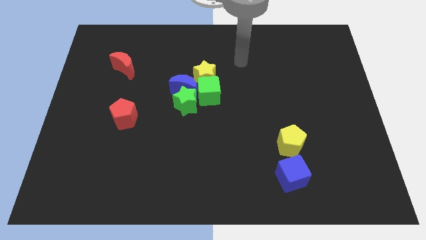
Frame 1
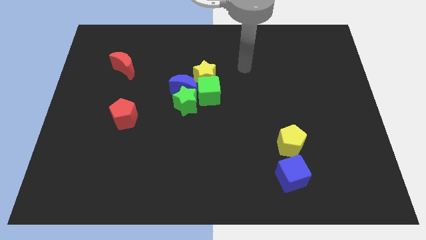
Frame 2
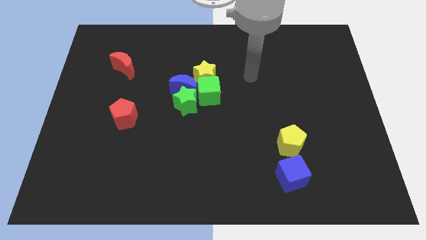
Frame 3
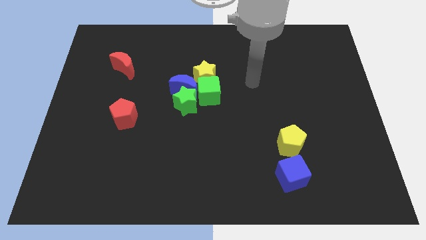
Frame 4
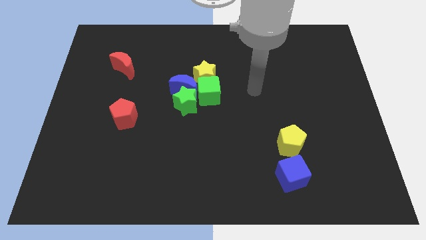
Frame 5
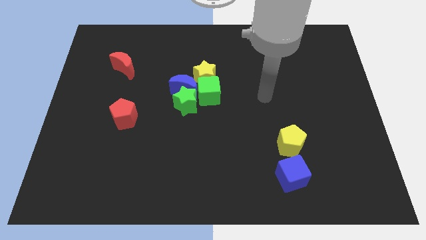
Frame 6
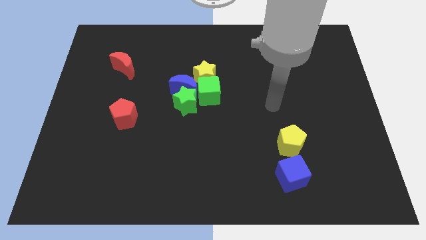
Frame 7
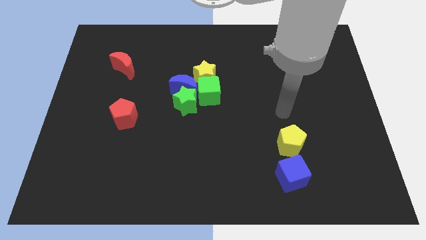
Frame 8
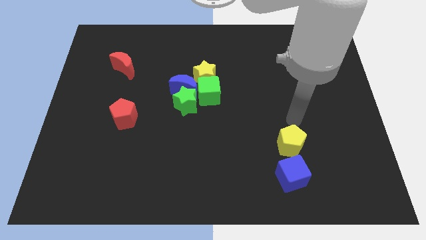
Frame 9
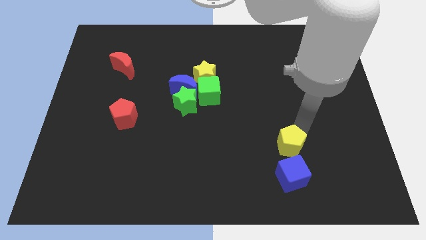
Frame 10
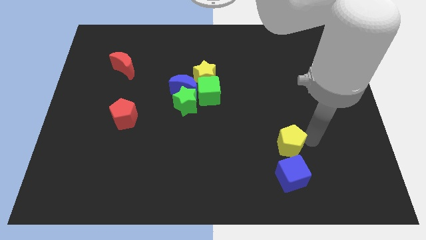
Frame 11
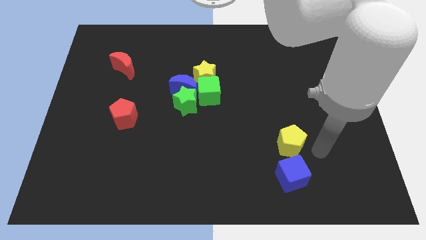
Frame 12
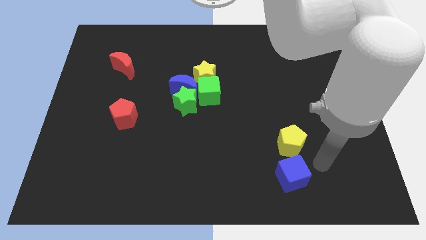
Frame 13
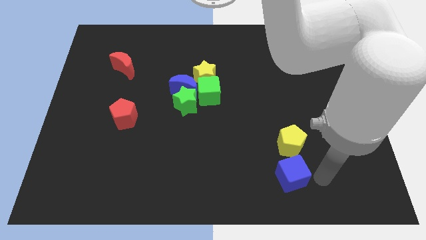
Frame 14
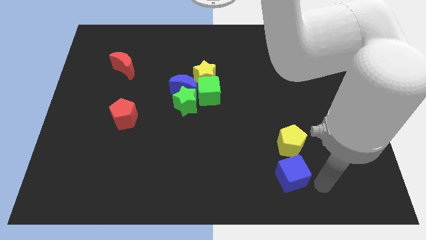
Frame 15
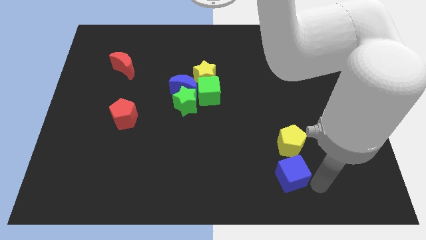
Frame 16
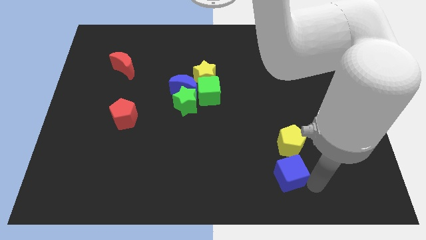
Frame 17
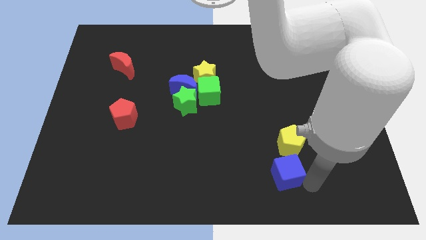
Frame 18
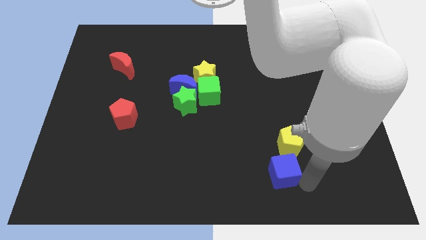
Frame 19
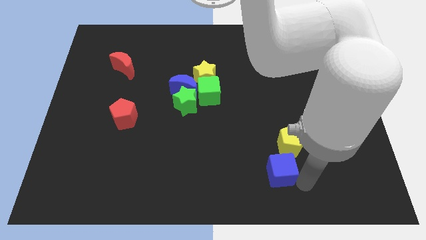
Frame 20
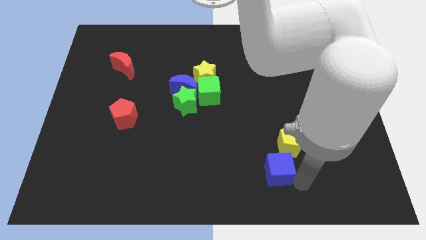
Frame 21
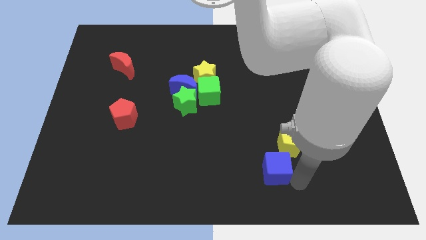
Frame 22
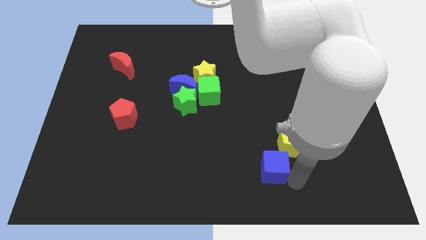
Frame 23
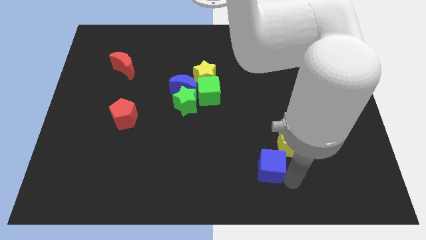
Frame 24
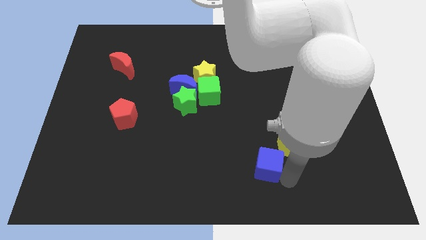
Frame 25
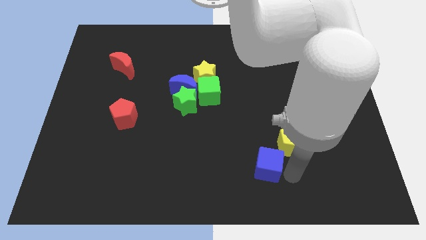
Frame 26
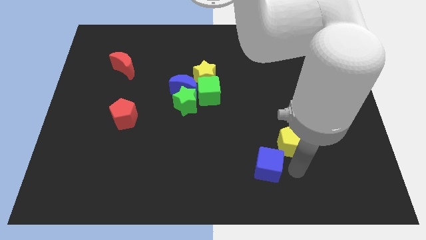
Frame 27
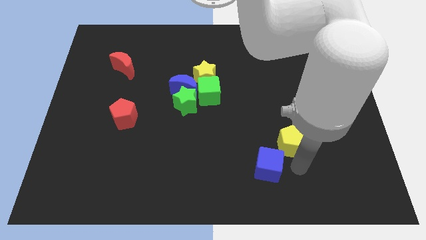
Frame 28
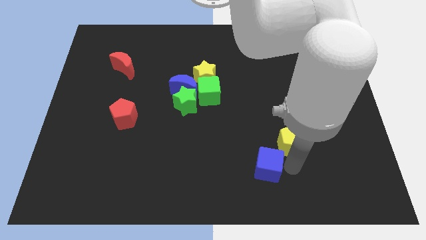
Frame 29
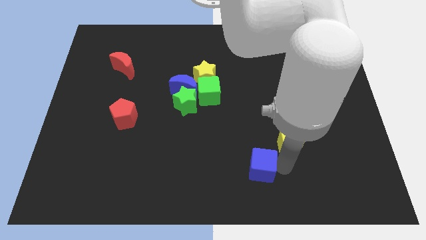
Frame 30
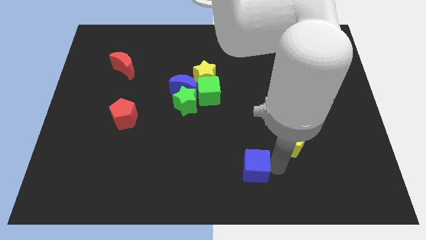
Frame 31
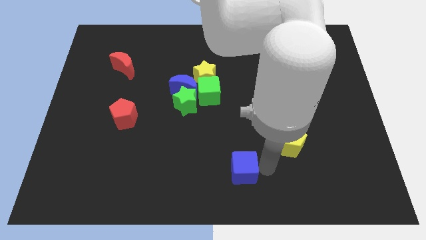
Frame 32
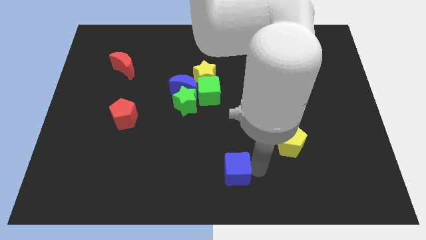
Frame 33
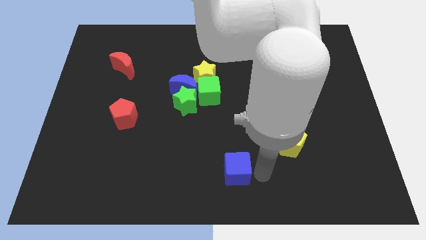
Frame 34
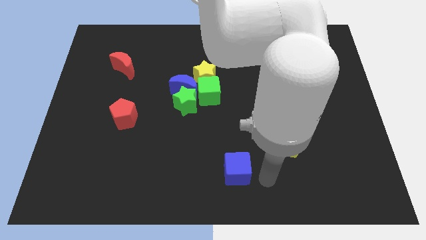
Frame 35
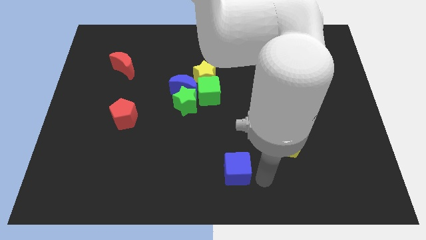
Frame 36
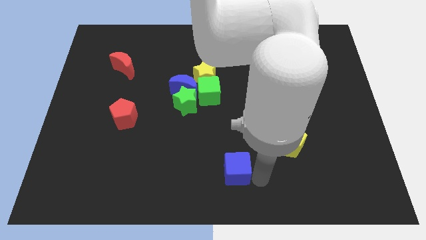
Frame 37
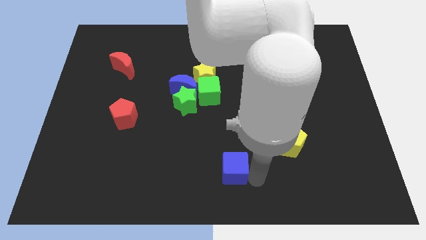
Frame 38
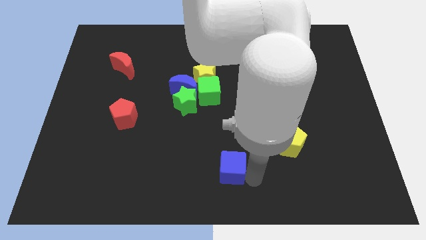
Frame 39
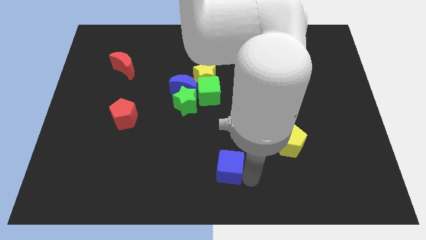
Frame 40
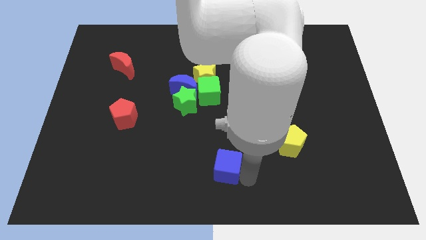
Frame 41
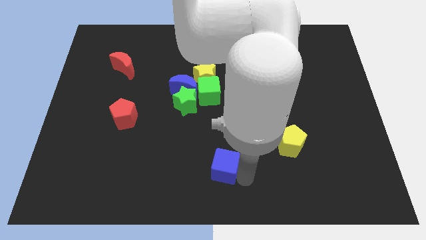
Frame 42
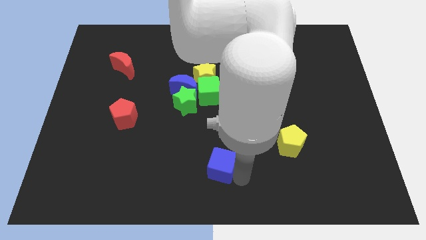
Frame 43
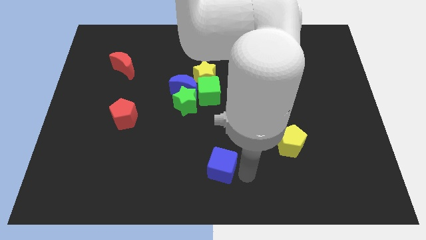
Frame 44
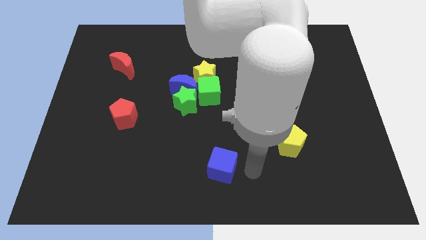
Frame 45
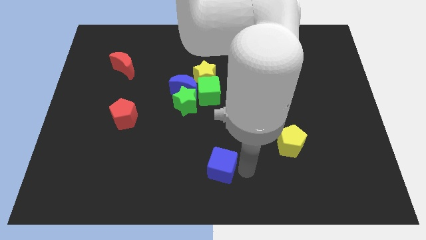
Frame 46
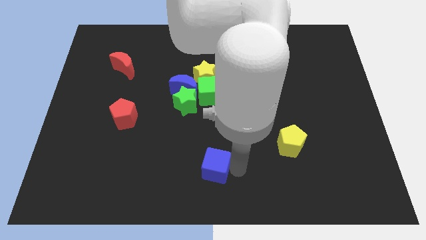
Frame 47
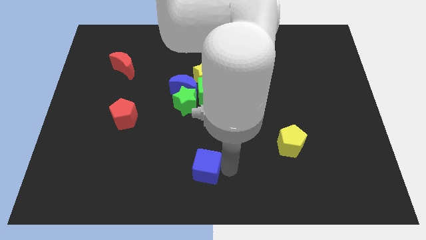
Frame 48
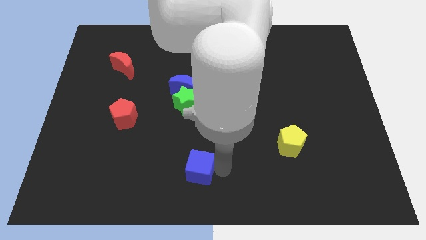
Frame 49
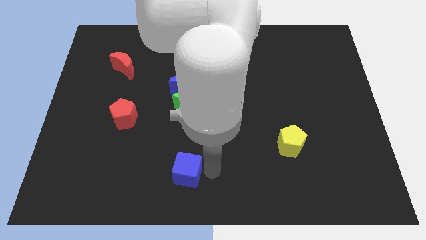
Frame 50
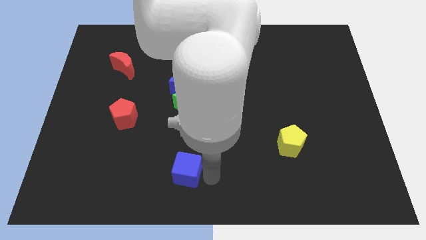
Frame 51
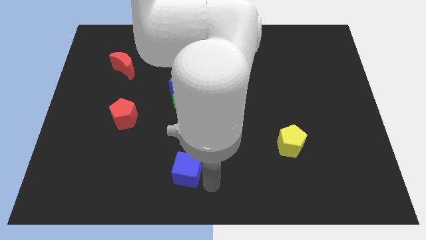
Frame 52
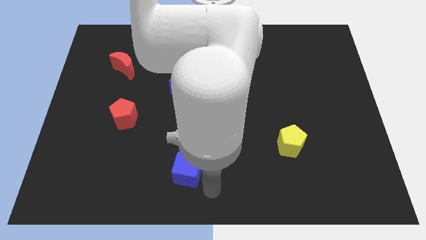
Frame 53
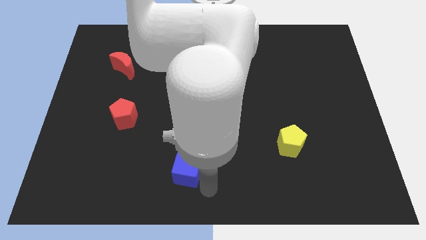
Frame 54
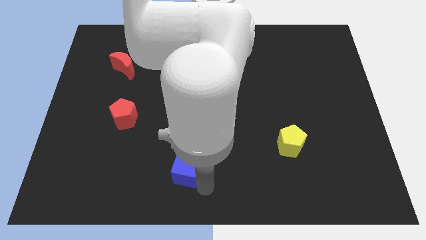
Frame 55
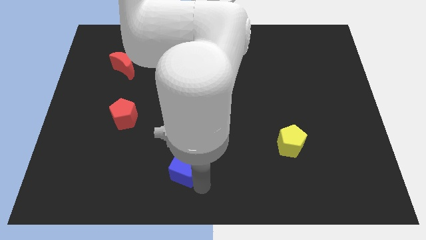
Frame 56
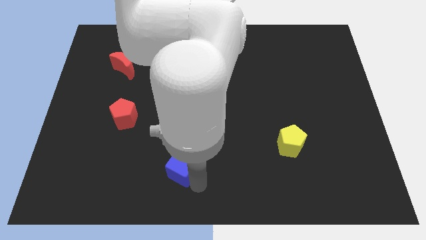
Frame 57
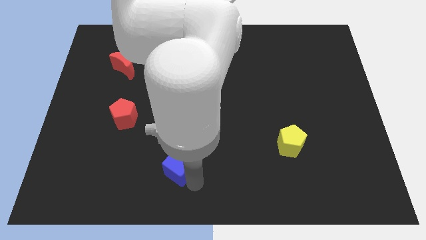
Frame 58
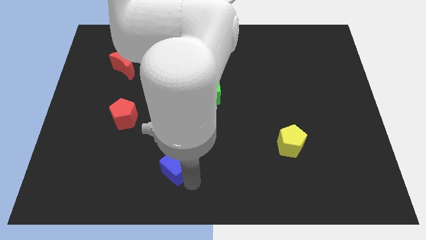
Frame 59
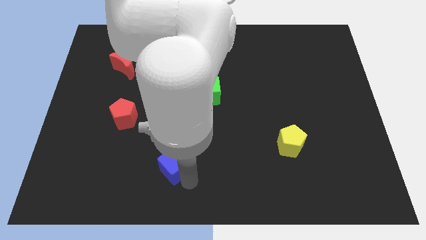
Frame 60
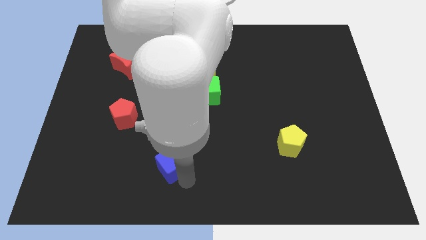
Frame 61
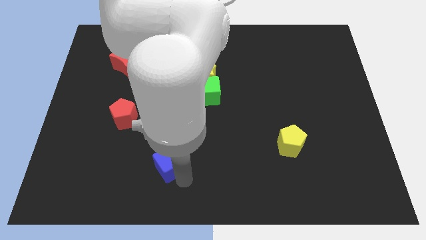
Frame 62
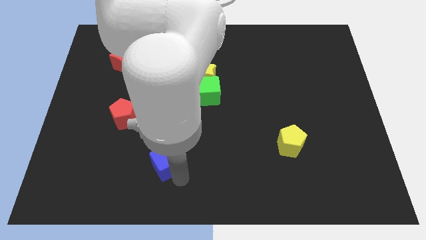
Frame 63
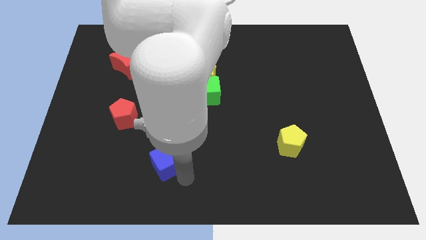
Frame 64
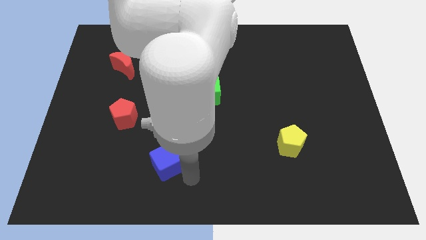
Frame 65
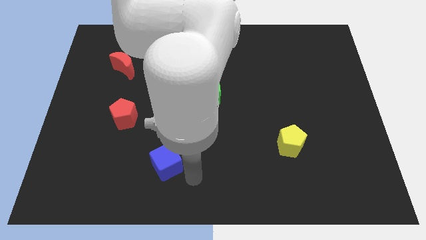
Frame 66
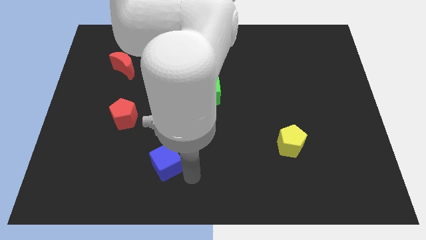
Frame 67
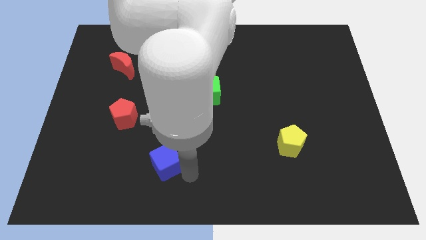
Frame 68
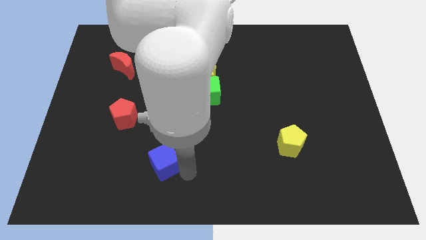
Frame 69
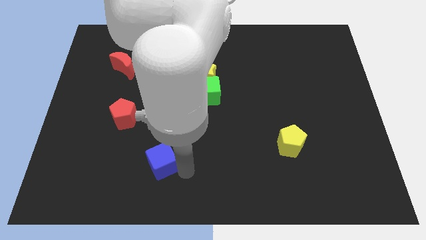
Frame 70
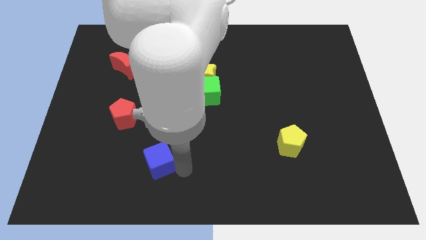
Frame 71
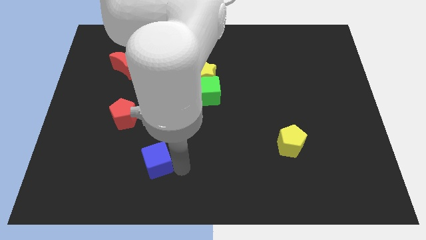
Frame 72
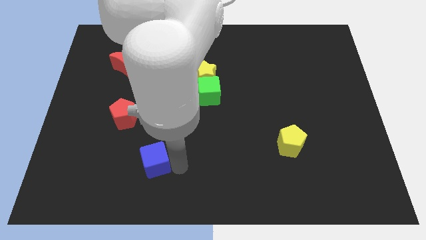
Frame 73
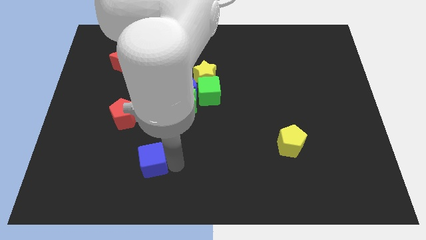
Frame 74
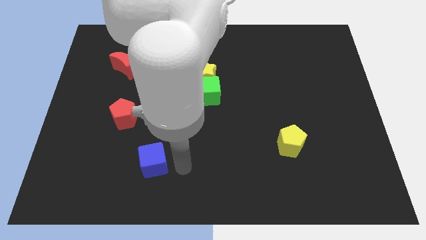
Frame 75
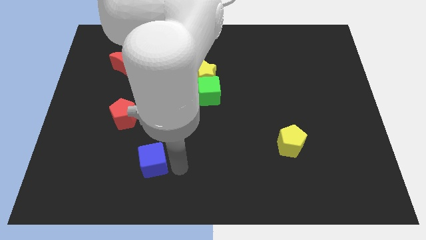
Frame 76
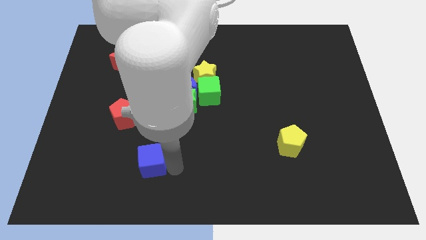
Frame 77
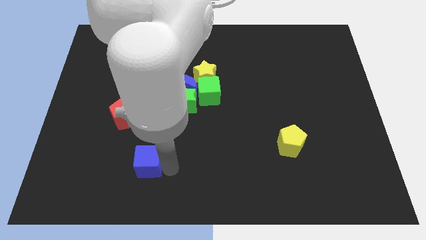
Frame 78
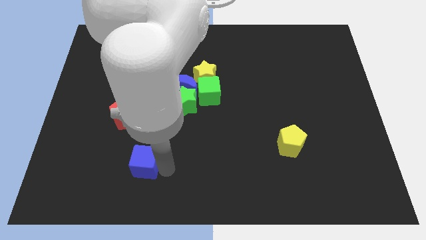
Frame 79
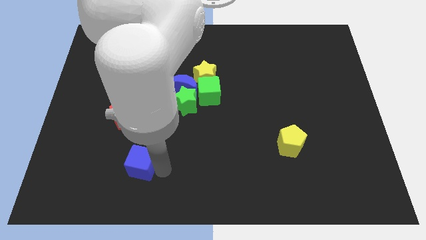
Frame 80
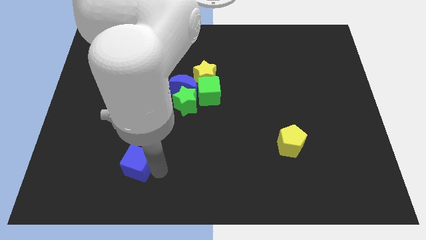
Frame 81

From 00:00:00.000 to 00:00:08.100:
put the blue cube to the bottom of the red pentagon
